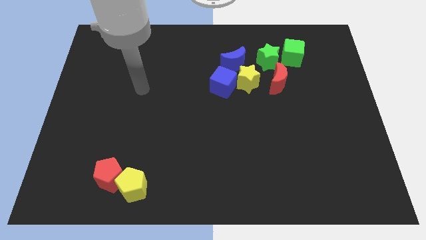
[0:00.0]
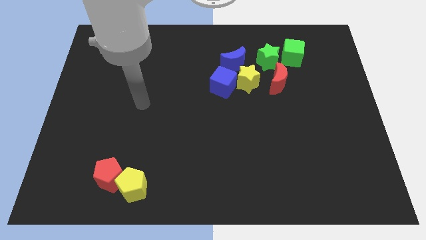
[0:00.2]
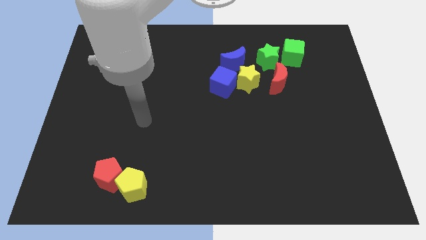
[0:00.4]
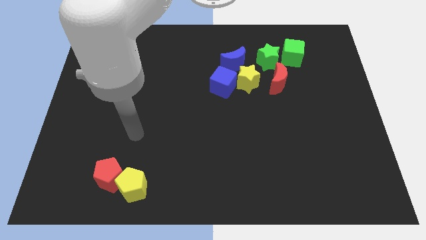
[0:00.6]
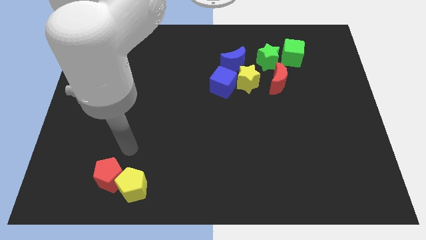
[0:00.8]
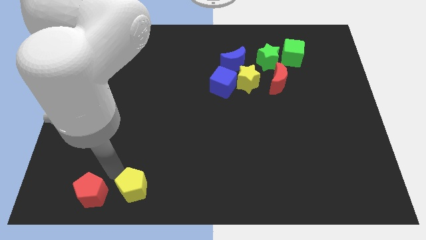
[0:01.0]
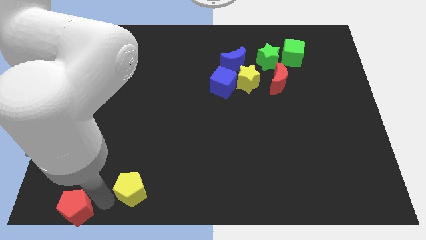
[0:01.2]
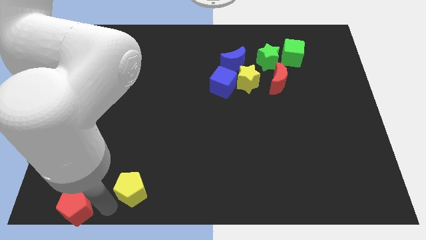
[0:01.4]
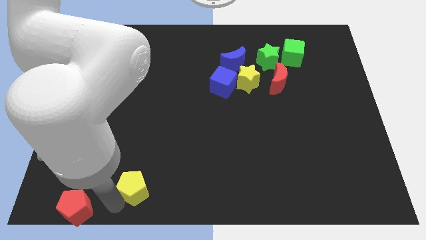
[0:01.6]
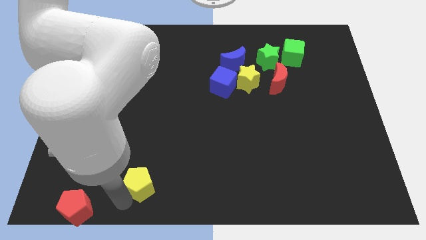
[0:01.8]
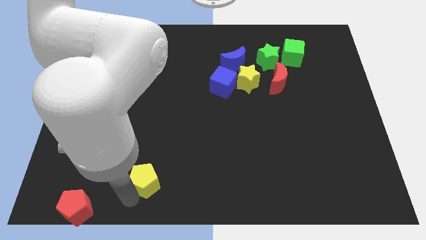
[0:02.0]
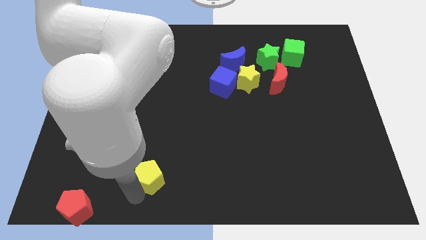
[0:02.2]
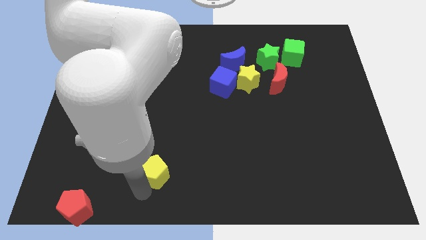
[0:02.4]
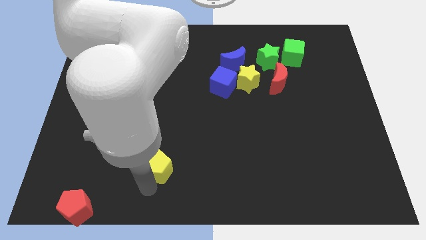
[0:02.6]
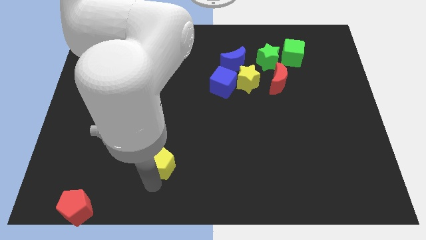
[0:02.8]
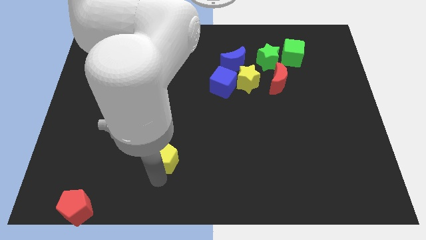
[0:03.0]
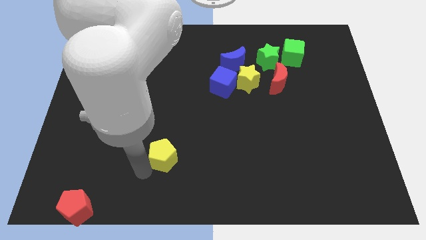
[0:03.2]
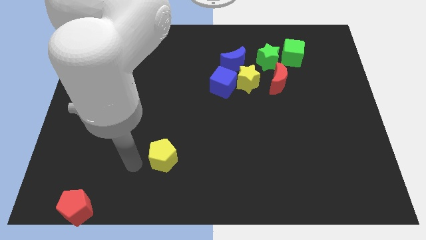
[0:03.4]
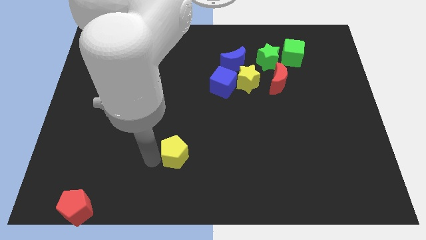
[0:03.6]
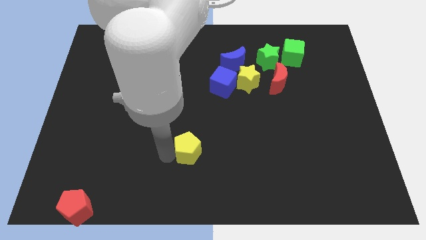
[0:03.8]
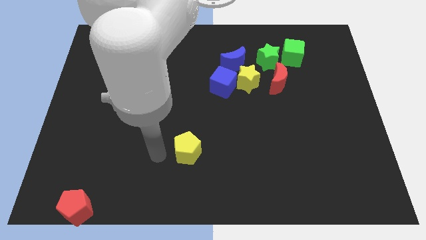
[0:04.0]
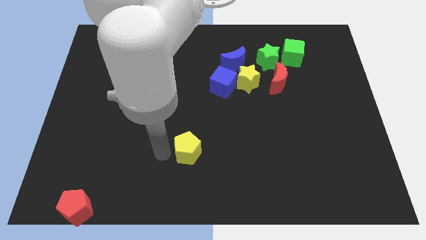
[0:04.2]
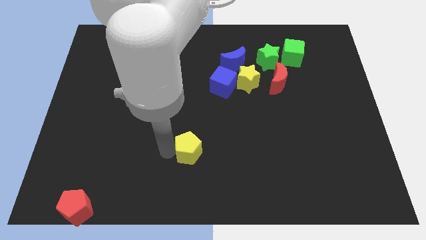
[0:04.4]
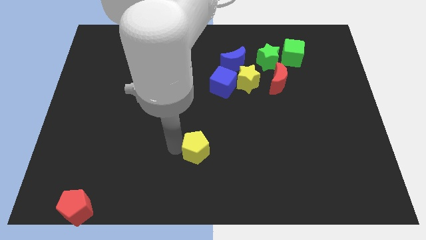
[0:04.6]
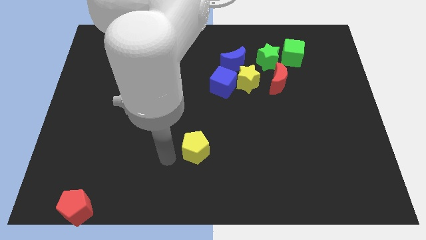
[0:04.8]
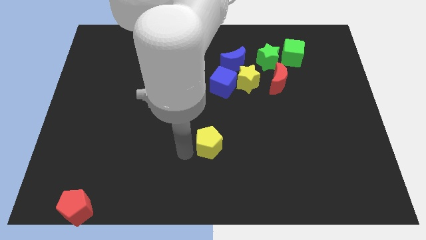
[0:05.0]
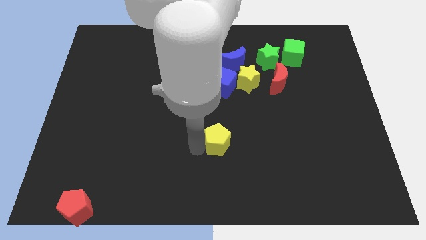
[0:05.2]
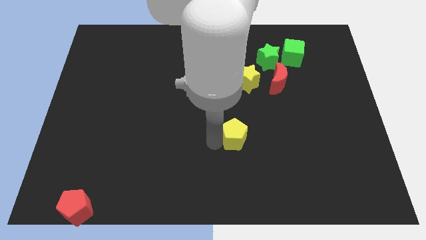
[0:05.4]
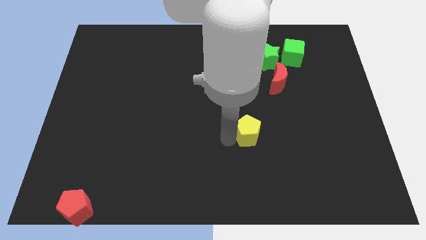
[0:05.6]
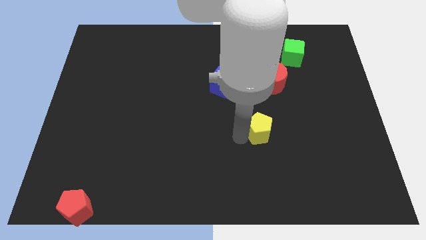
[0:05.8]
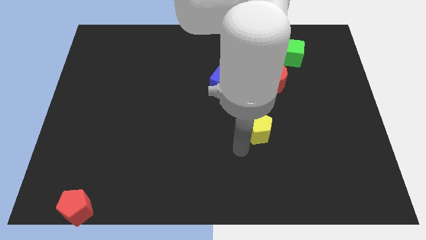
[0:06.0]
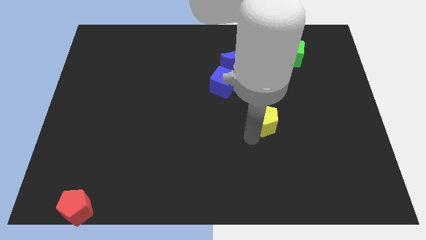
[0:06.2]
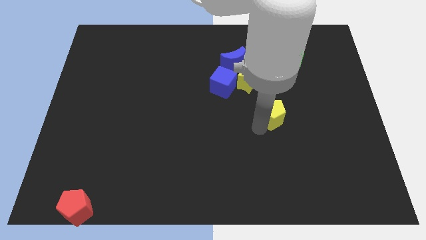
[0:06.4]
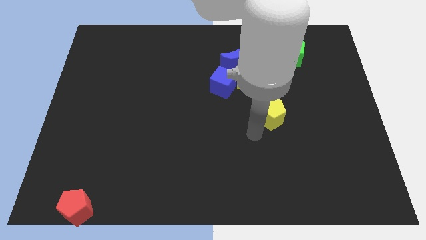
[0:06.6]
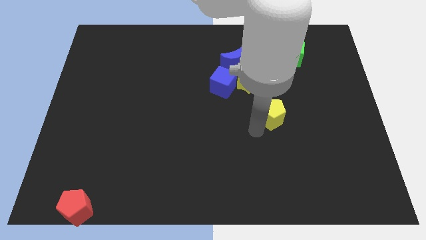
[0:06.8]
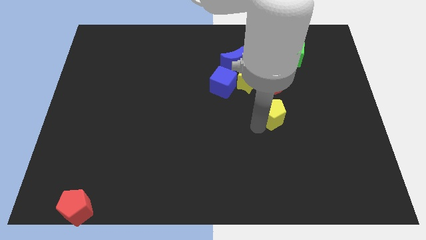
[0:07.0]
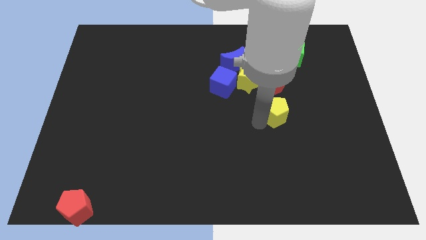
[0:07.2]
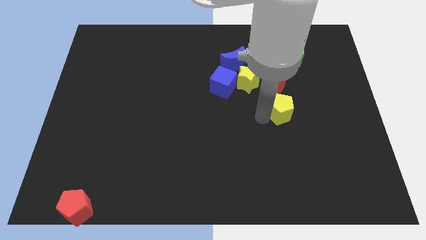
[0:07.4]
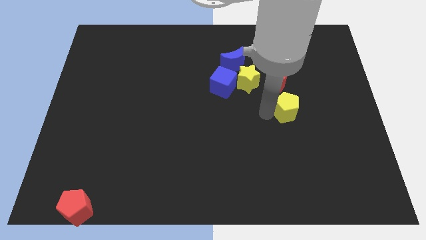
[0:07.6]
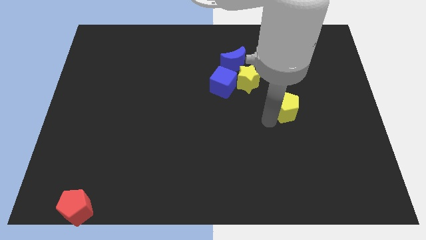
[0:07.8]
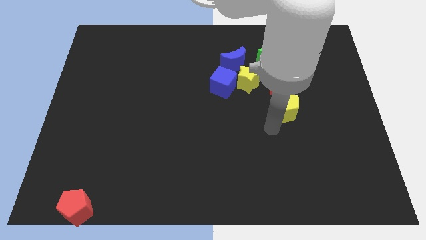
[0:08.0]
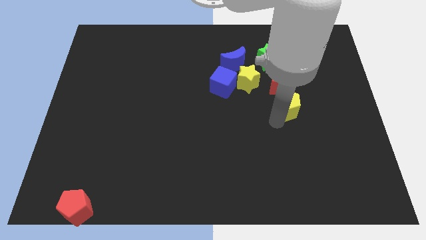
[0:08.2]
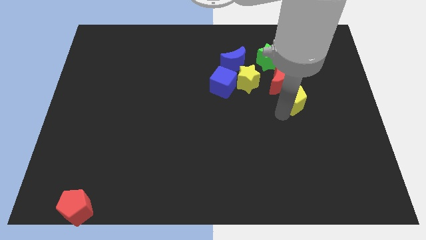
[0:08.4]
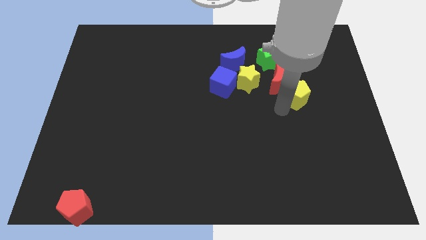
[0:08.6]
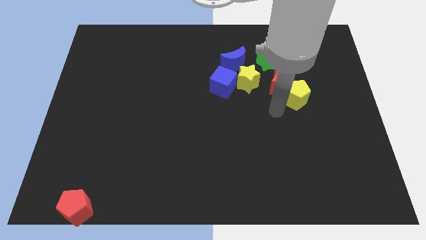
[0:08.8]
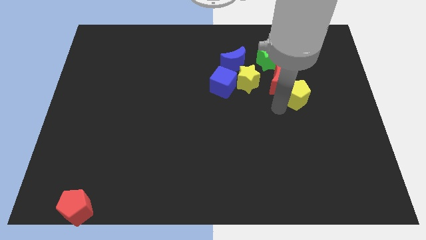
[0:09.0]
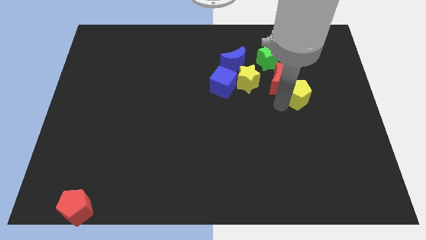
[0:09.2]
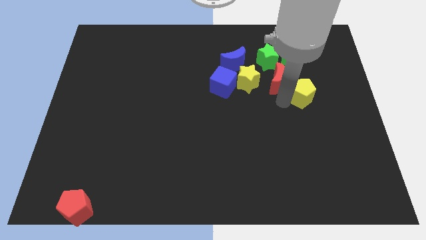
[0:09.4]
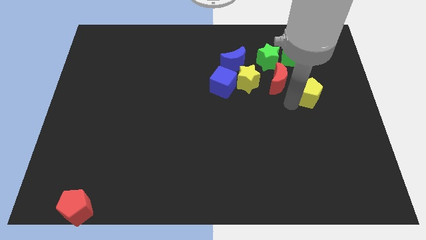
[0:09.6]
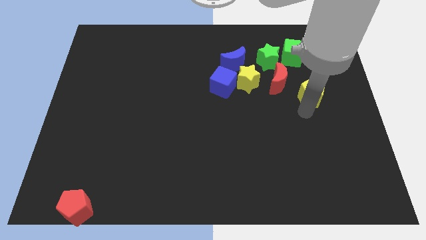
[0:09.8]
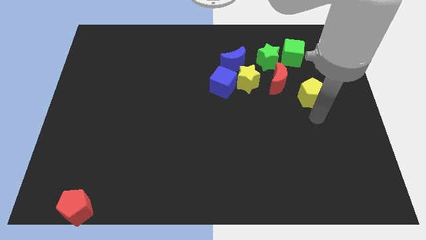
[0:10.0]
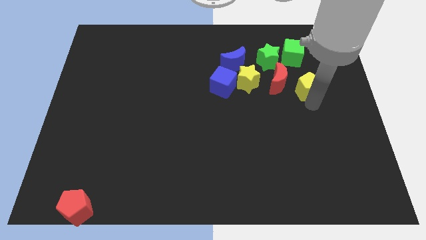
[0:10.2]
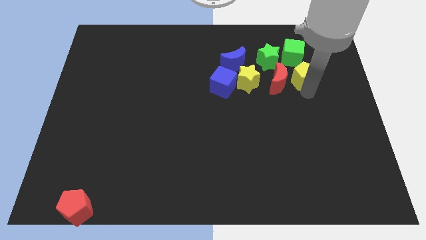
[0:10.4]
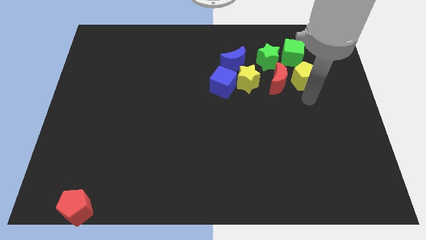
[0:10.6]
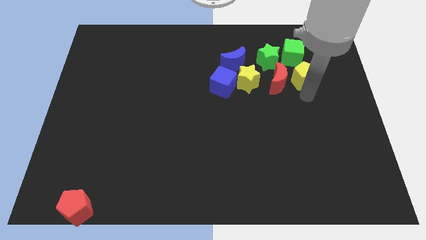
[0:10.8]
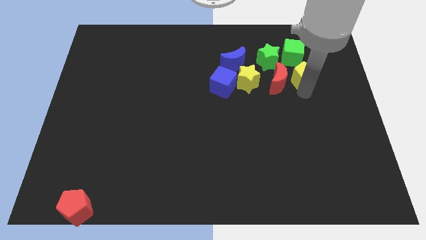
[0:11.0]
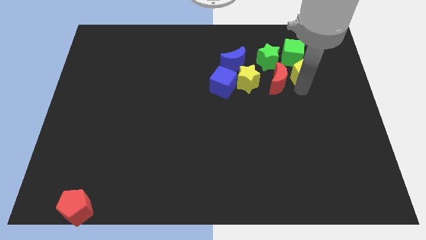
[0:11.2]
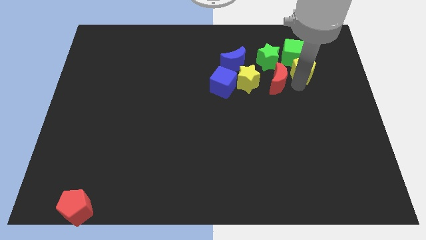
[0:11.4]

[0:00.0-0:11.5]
push the yellow pentagon towards the green cube
